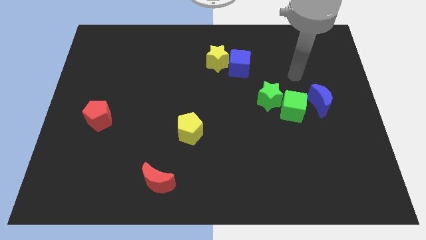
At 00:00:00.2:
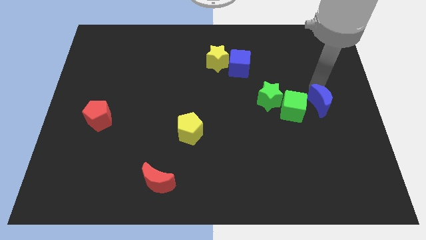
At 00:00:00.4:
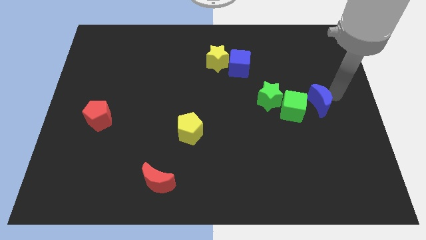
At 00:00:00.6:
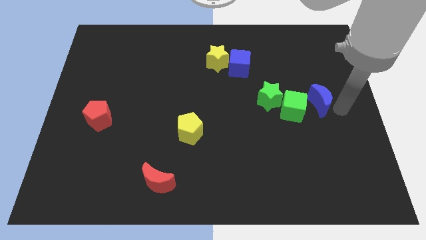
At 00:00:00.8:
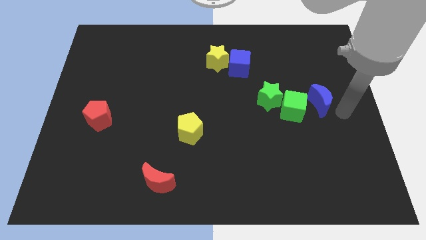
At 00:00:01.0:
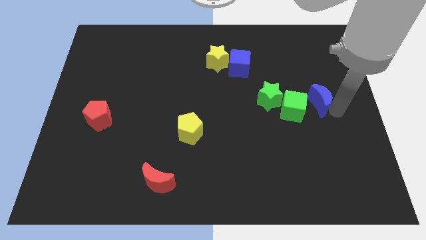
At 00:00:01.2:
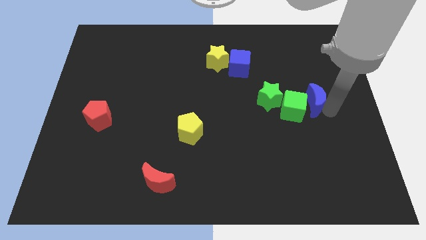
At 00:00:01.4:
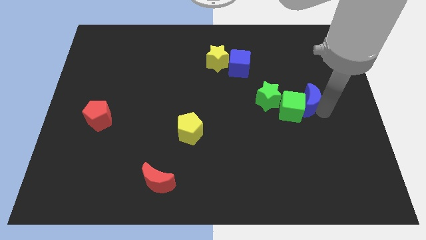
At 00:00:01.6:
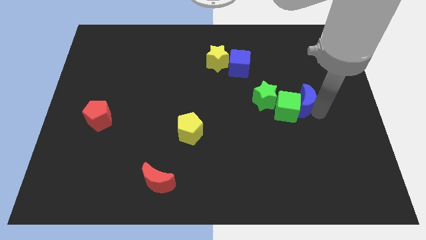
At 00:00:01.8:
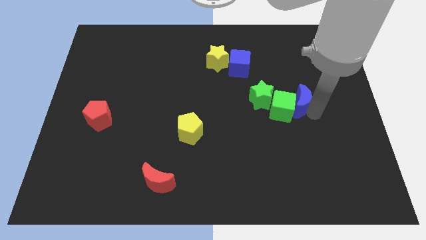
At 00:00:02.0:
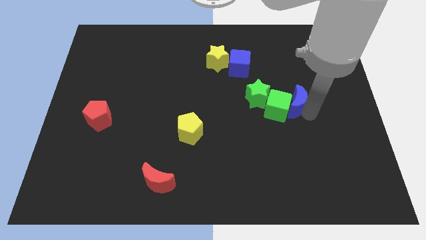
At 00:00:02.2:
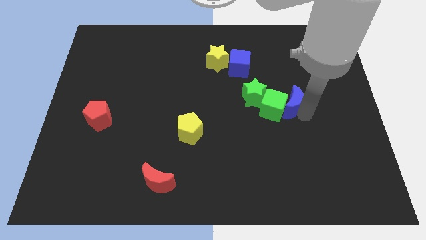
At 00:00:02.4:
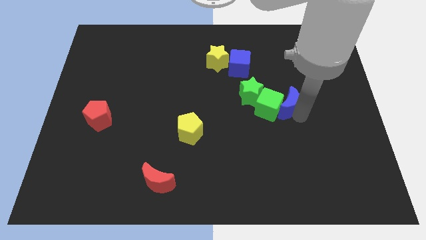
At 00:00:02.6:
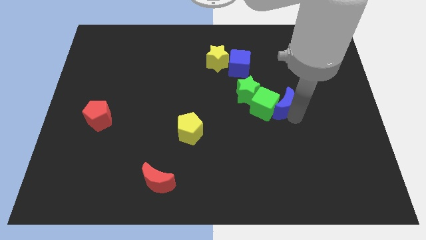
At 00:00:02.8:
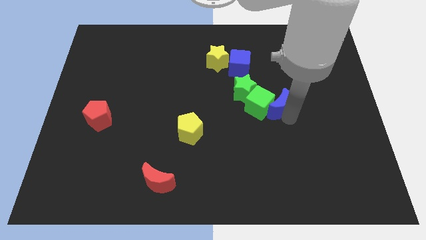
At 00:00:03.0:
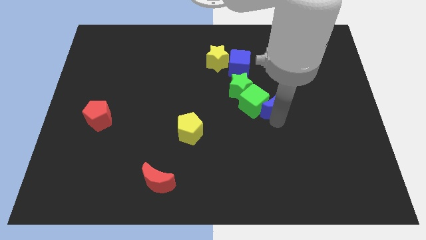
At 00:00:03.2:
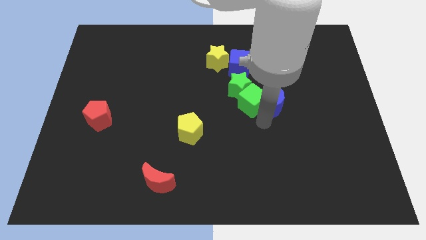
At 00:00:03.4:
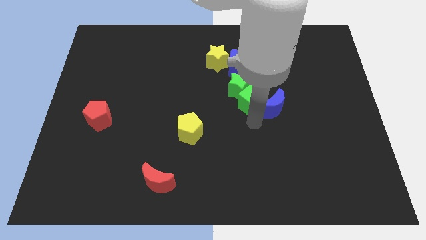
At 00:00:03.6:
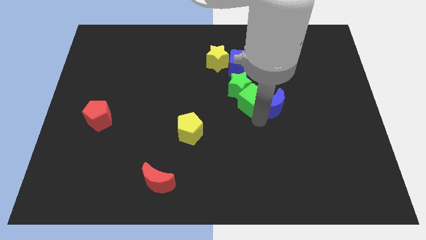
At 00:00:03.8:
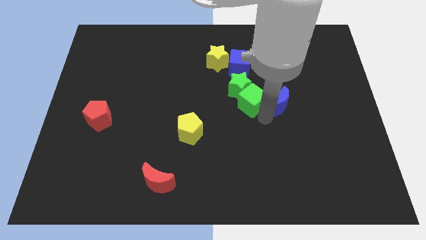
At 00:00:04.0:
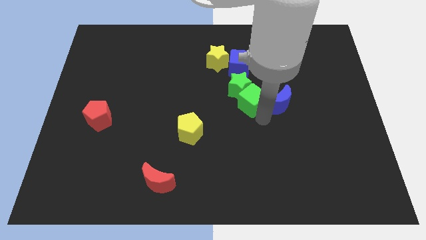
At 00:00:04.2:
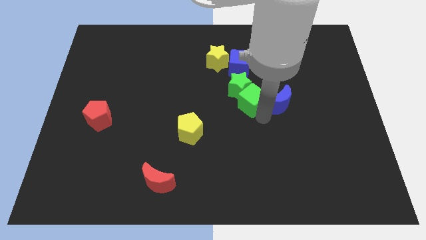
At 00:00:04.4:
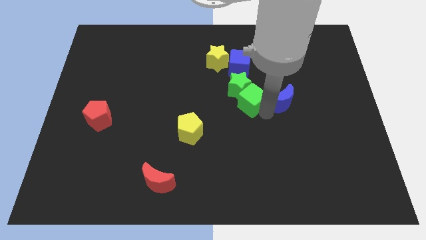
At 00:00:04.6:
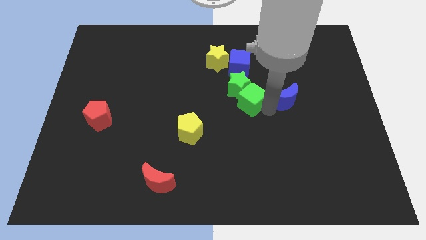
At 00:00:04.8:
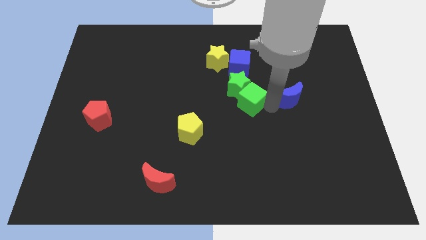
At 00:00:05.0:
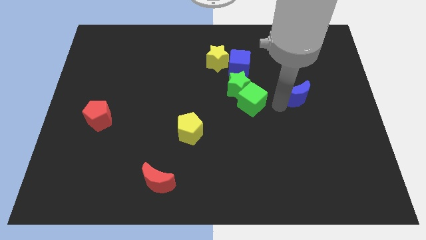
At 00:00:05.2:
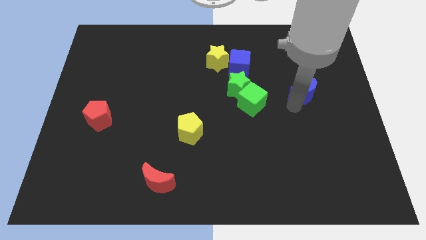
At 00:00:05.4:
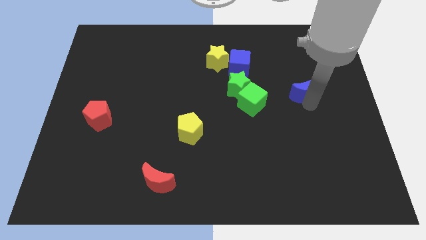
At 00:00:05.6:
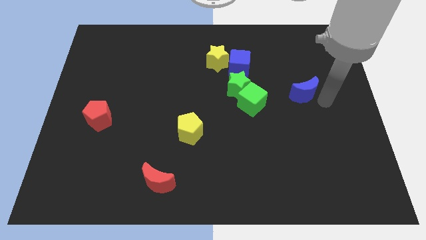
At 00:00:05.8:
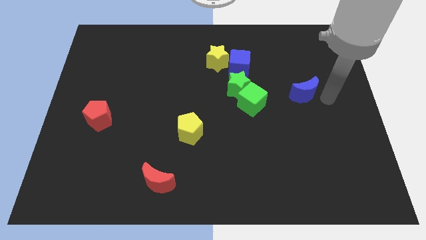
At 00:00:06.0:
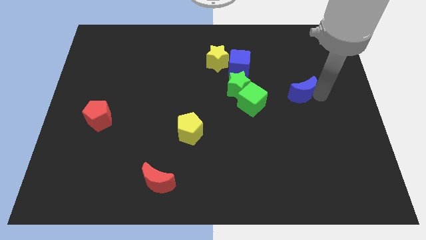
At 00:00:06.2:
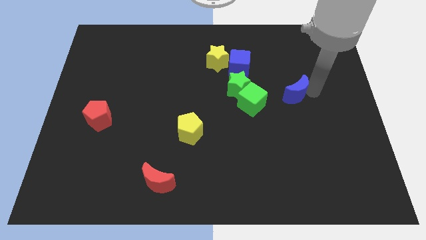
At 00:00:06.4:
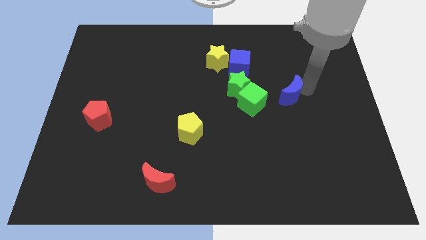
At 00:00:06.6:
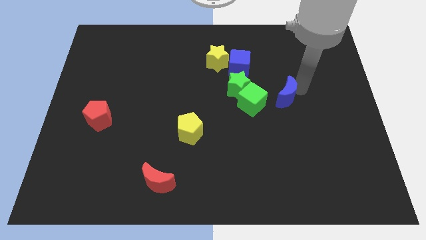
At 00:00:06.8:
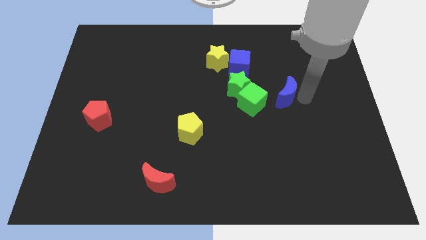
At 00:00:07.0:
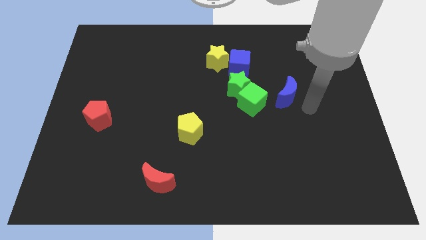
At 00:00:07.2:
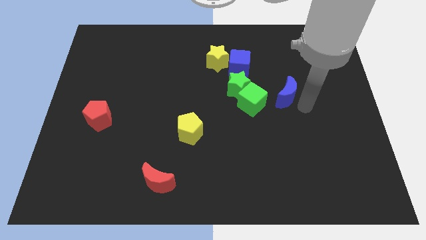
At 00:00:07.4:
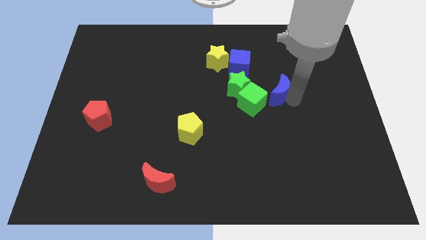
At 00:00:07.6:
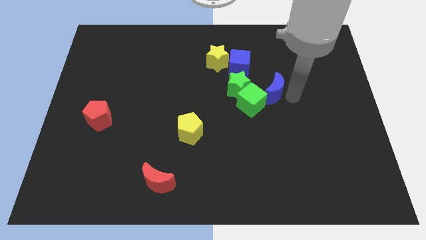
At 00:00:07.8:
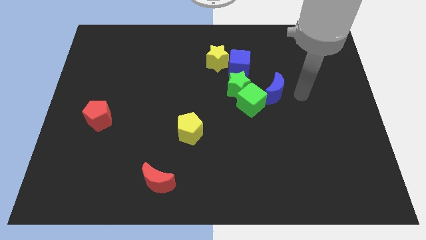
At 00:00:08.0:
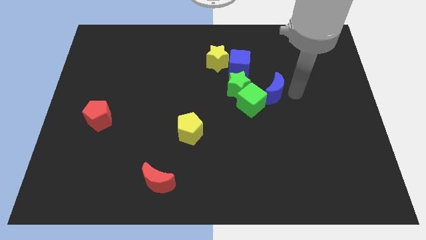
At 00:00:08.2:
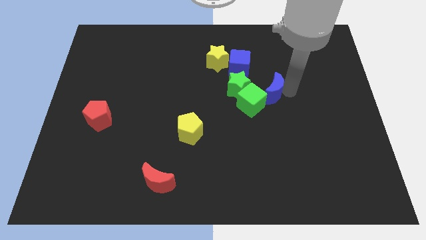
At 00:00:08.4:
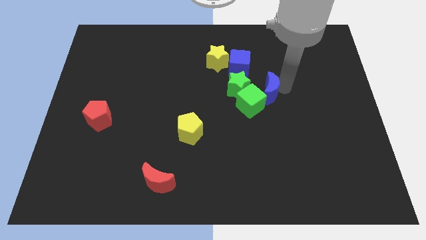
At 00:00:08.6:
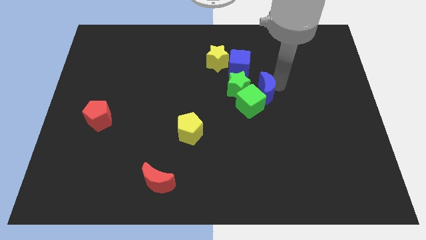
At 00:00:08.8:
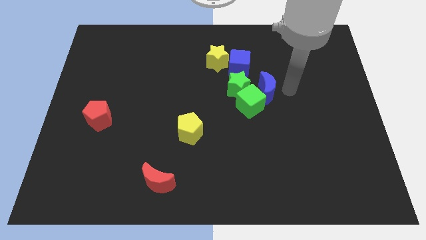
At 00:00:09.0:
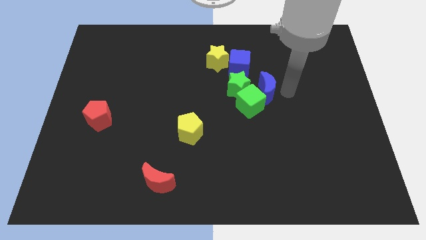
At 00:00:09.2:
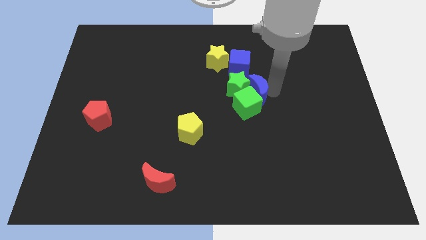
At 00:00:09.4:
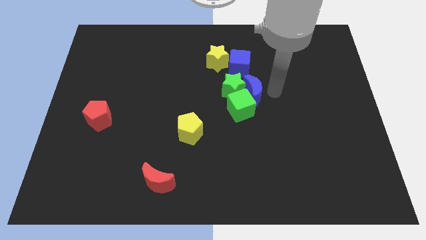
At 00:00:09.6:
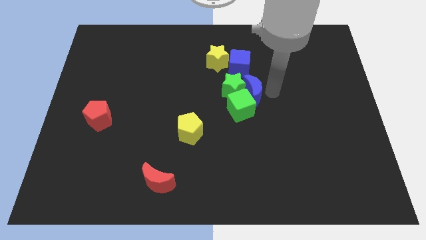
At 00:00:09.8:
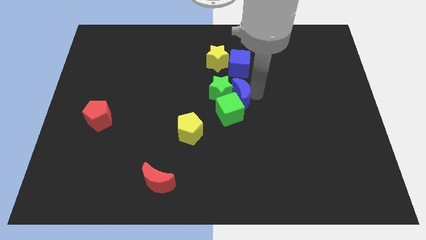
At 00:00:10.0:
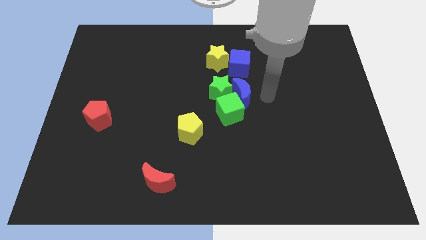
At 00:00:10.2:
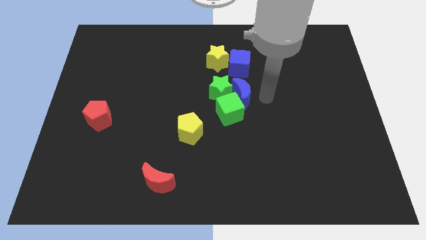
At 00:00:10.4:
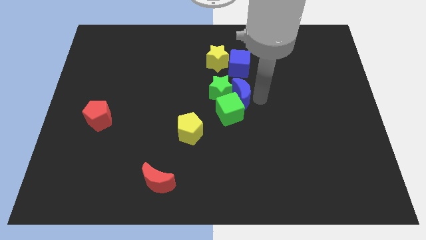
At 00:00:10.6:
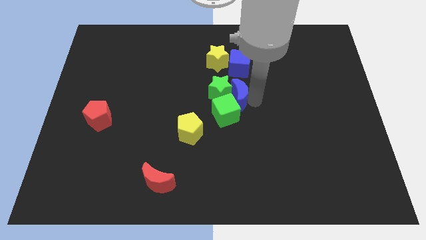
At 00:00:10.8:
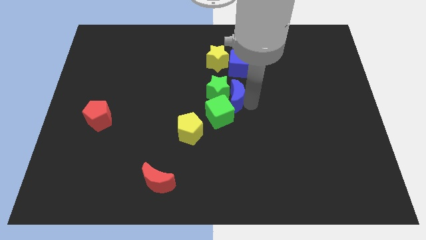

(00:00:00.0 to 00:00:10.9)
push the blue moon left

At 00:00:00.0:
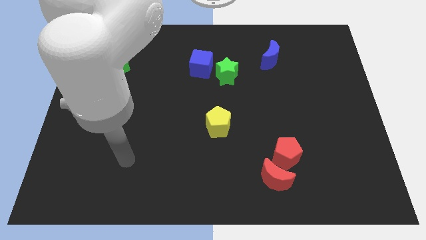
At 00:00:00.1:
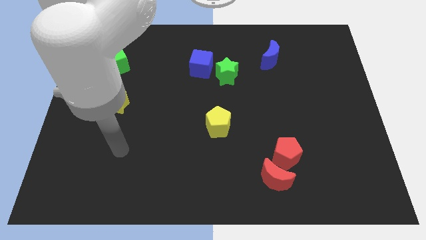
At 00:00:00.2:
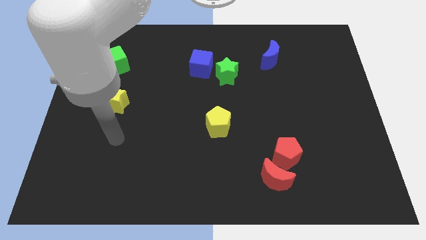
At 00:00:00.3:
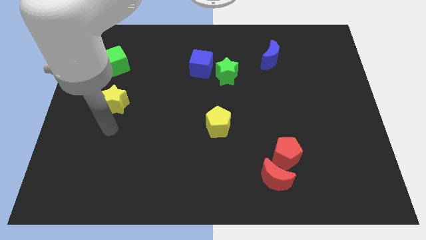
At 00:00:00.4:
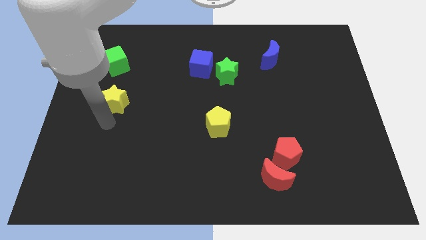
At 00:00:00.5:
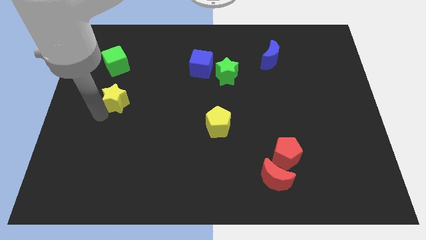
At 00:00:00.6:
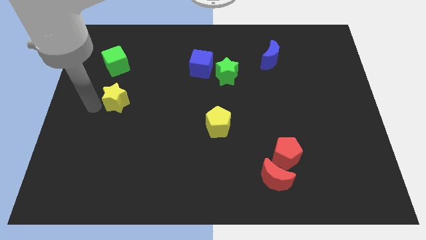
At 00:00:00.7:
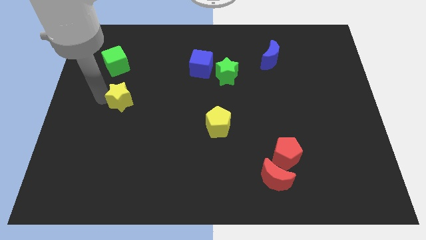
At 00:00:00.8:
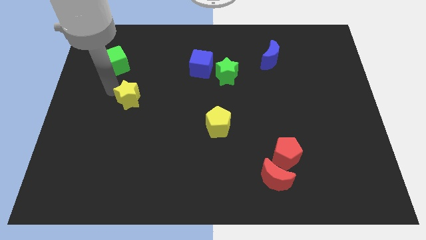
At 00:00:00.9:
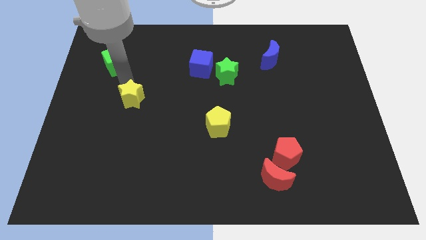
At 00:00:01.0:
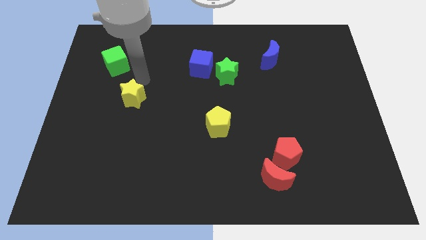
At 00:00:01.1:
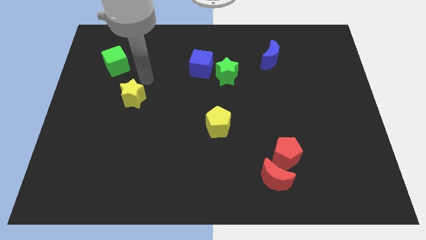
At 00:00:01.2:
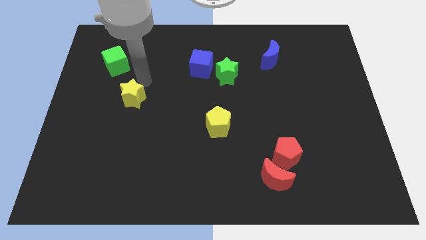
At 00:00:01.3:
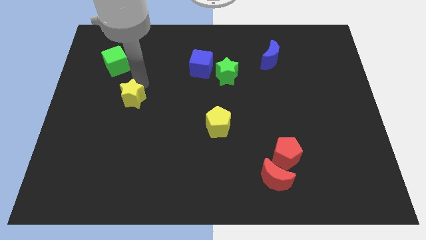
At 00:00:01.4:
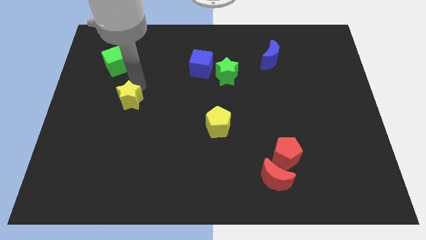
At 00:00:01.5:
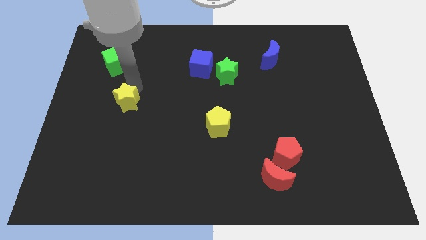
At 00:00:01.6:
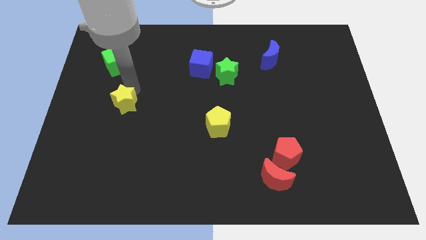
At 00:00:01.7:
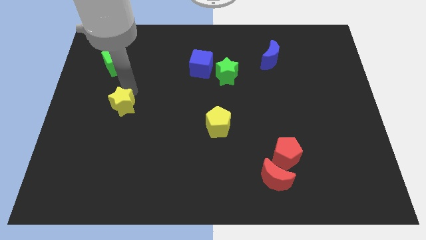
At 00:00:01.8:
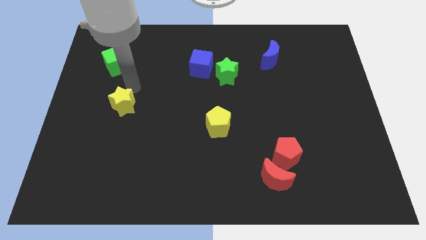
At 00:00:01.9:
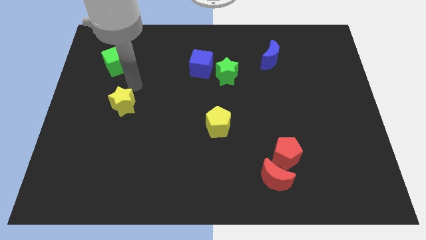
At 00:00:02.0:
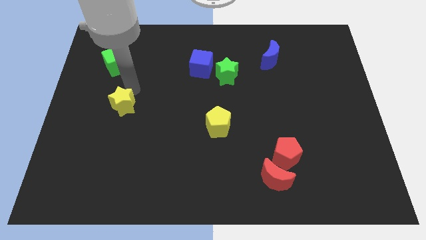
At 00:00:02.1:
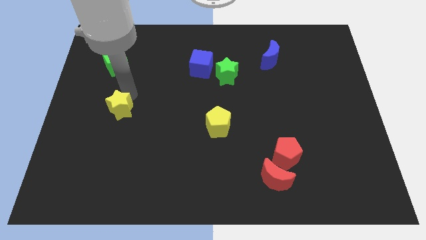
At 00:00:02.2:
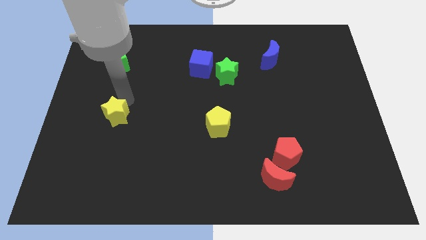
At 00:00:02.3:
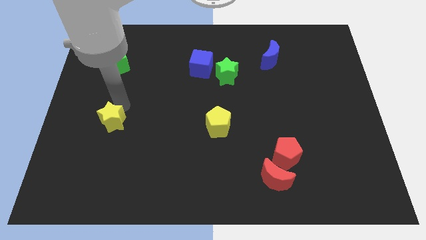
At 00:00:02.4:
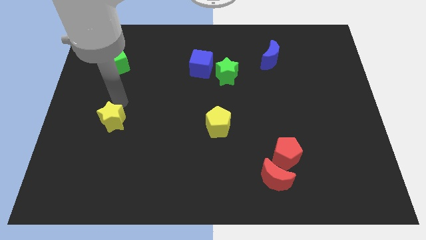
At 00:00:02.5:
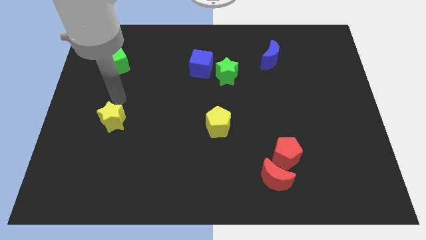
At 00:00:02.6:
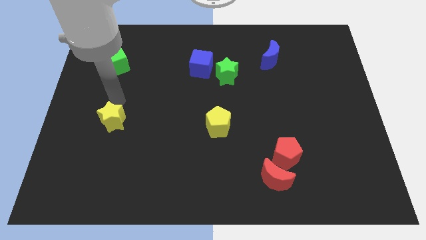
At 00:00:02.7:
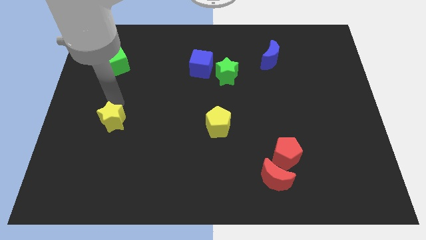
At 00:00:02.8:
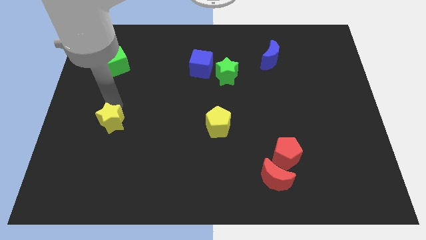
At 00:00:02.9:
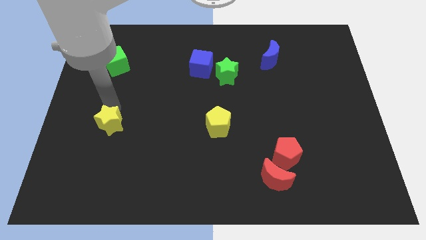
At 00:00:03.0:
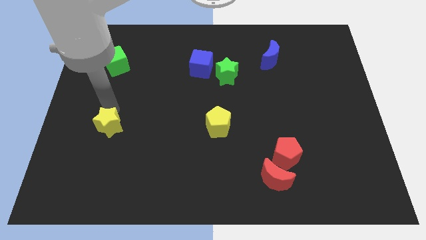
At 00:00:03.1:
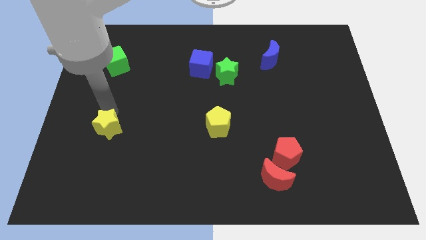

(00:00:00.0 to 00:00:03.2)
move the yellow star slightly down
